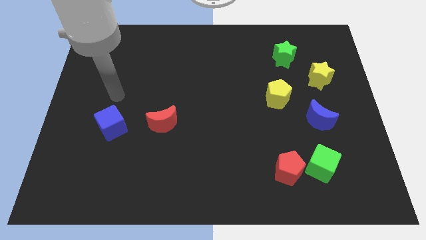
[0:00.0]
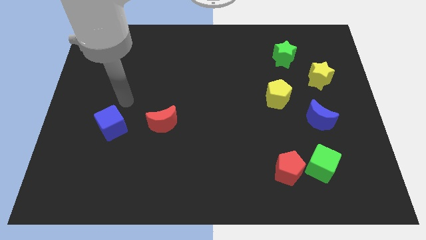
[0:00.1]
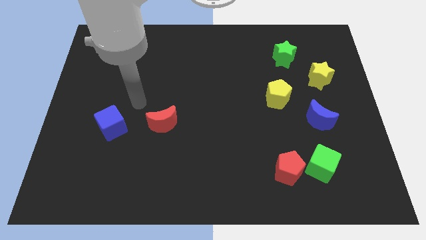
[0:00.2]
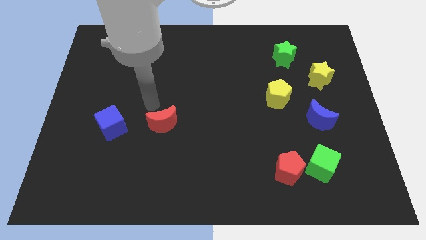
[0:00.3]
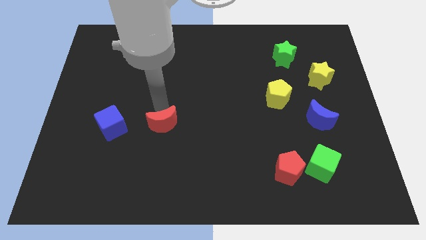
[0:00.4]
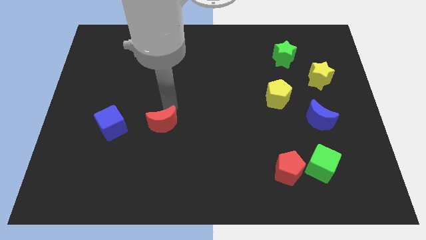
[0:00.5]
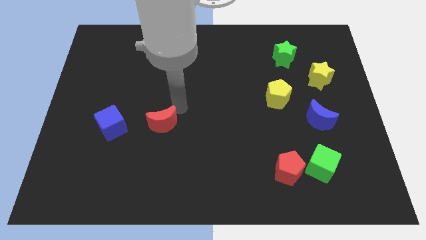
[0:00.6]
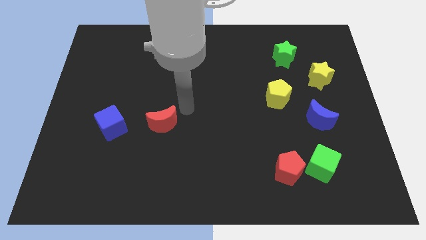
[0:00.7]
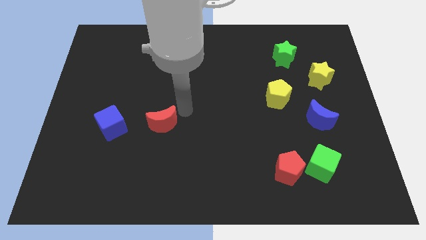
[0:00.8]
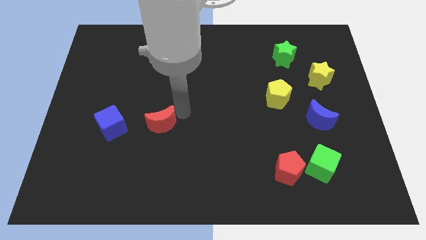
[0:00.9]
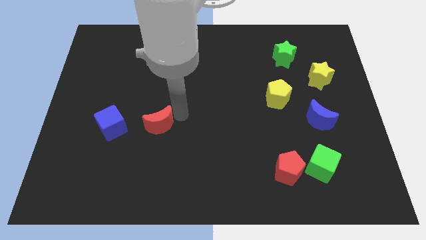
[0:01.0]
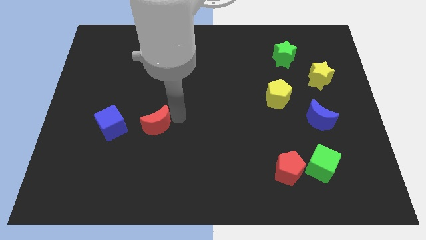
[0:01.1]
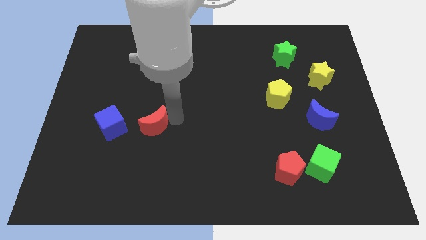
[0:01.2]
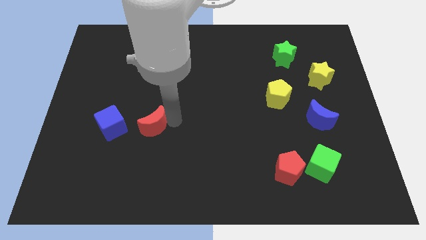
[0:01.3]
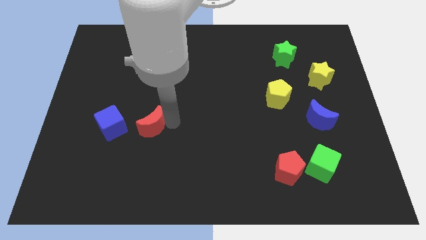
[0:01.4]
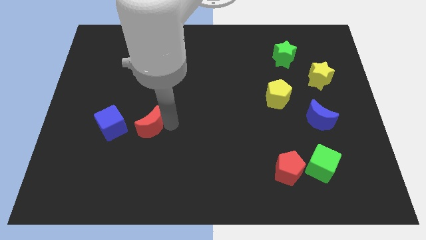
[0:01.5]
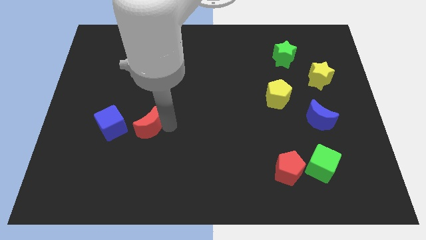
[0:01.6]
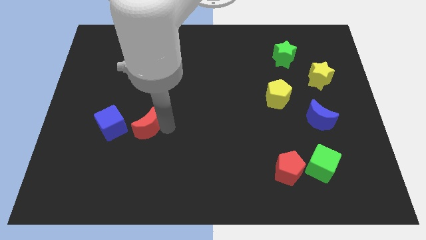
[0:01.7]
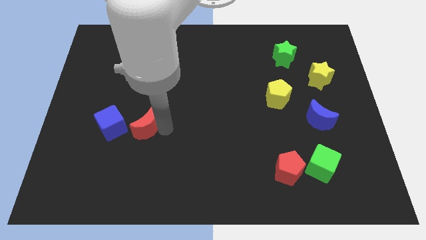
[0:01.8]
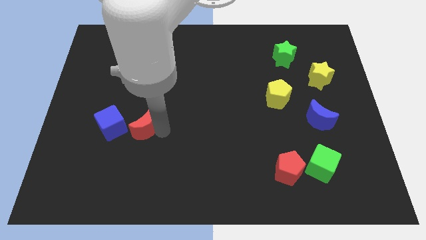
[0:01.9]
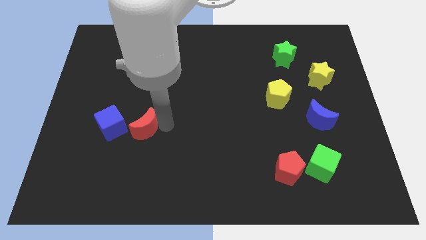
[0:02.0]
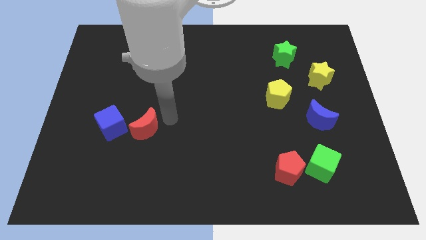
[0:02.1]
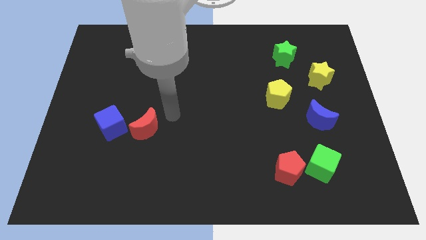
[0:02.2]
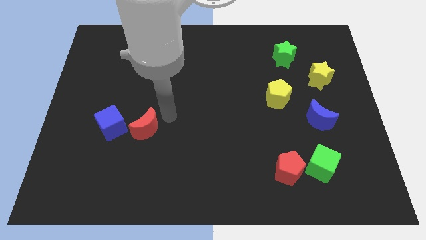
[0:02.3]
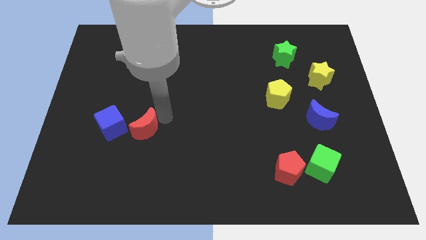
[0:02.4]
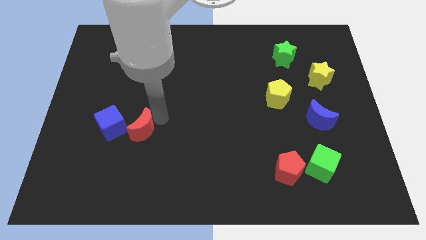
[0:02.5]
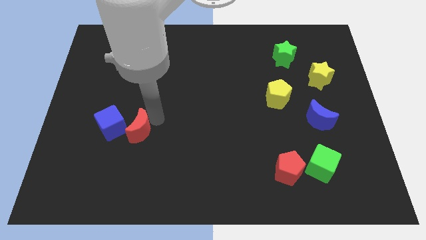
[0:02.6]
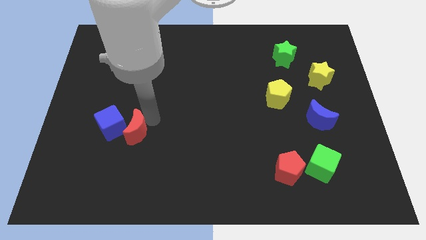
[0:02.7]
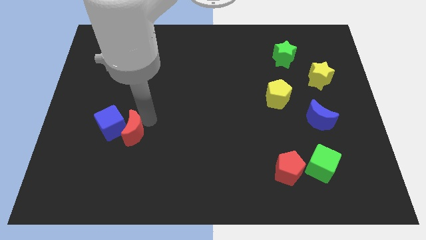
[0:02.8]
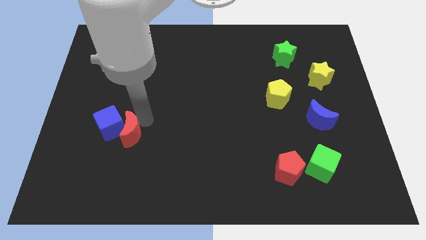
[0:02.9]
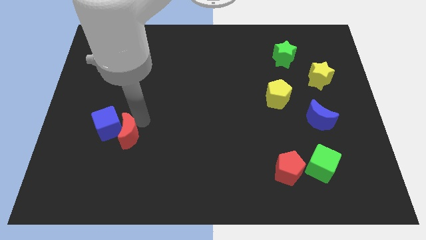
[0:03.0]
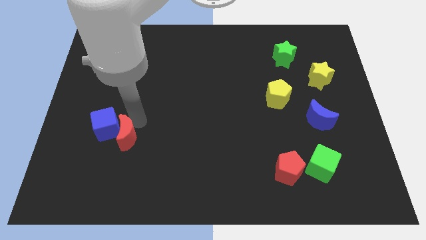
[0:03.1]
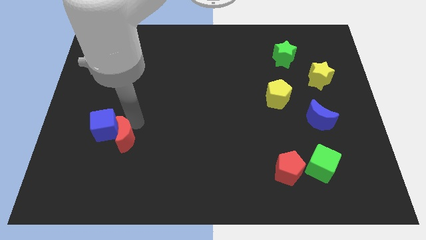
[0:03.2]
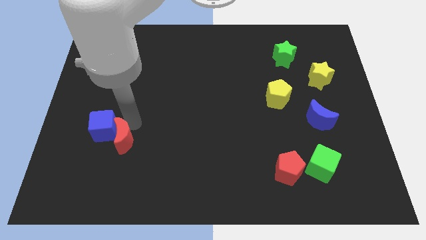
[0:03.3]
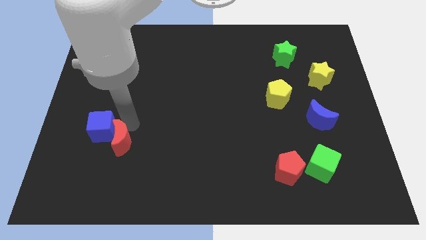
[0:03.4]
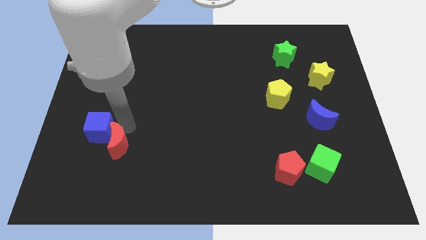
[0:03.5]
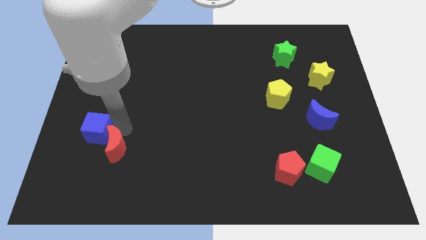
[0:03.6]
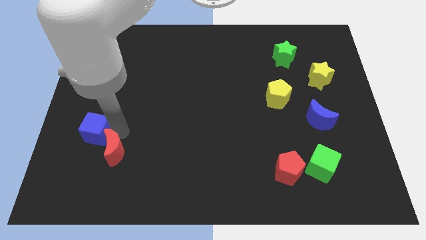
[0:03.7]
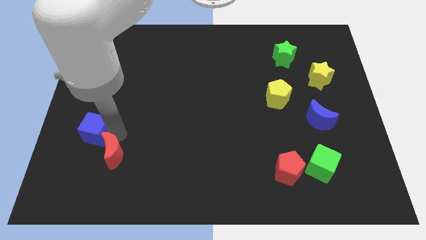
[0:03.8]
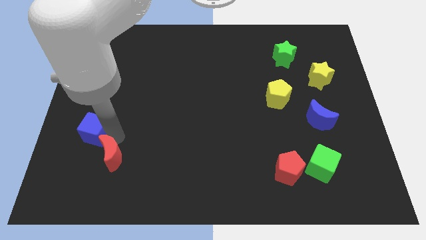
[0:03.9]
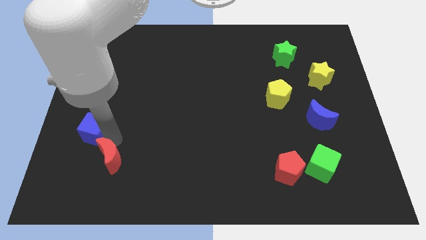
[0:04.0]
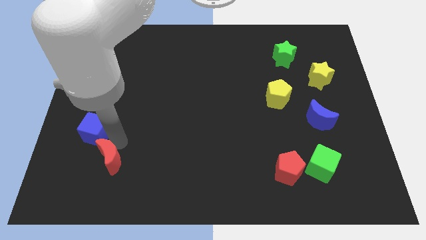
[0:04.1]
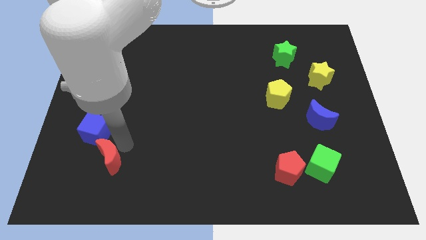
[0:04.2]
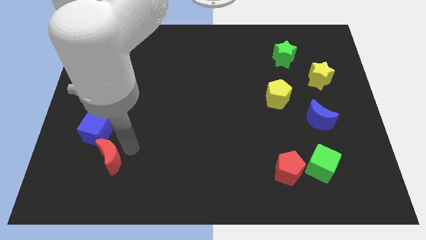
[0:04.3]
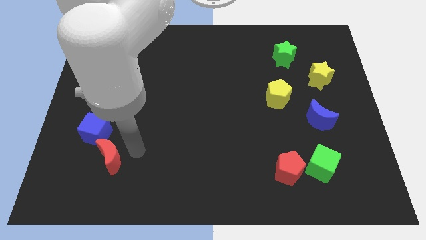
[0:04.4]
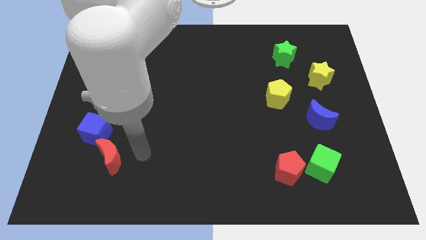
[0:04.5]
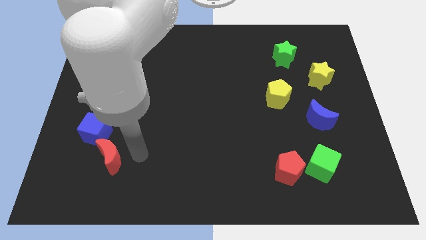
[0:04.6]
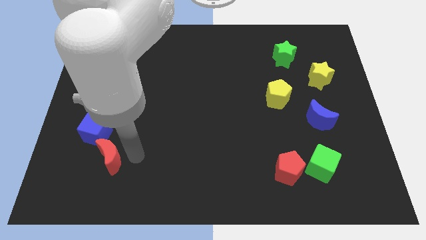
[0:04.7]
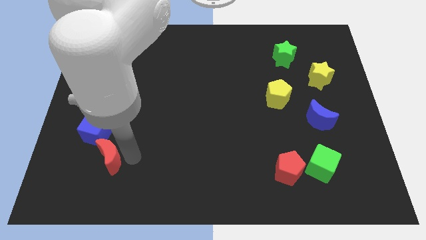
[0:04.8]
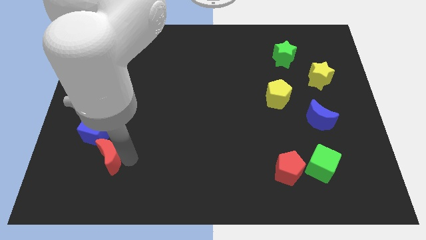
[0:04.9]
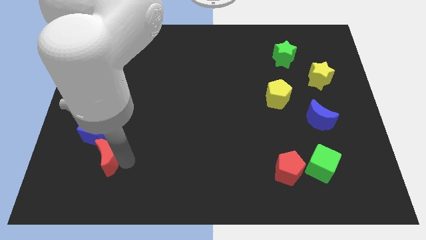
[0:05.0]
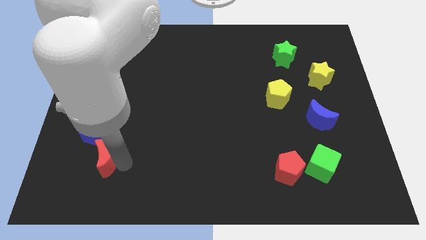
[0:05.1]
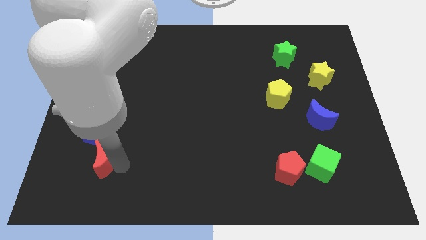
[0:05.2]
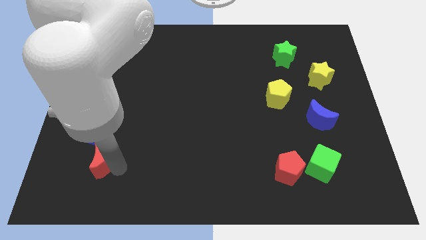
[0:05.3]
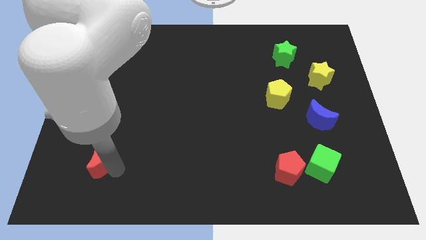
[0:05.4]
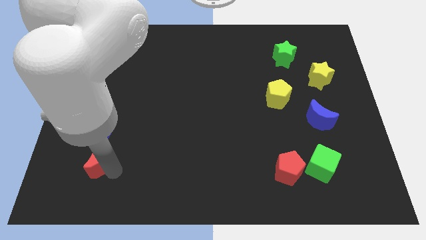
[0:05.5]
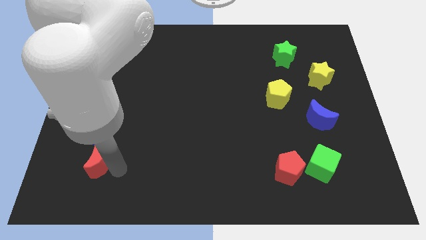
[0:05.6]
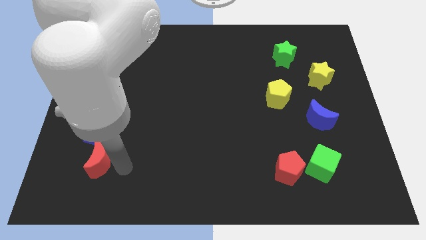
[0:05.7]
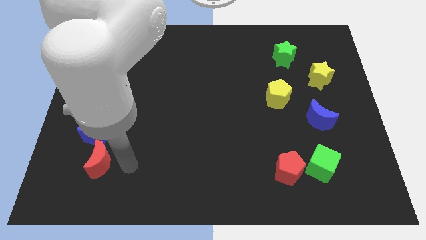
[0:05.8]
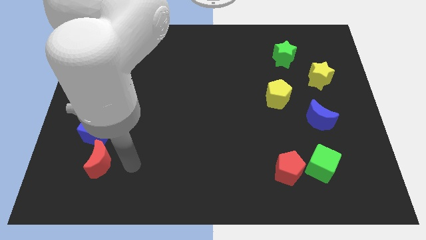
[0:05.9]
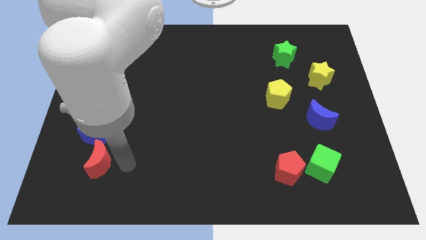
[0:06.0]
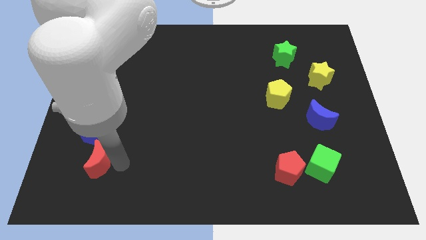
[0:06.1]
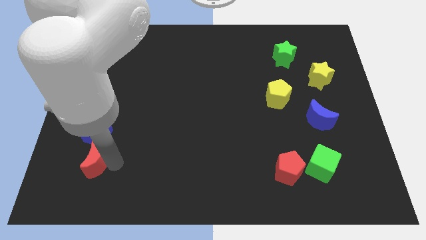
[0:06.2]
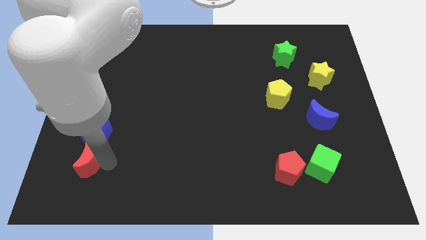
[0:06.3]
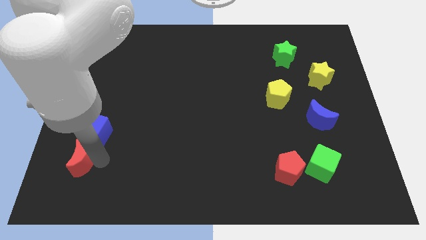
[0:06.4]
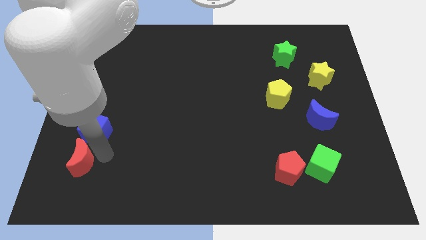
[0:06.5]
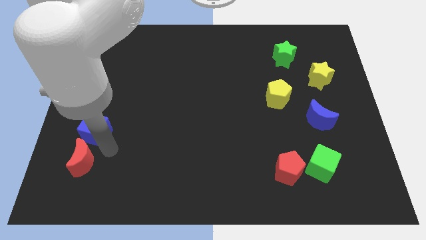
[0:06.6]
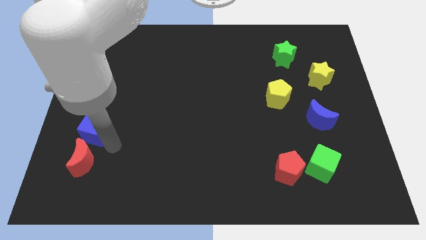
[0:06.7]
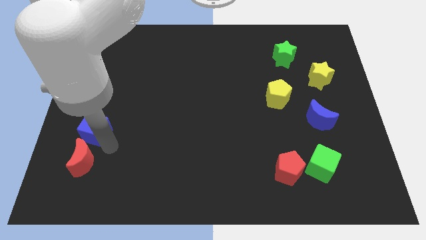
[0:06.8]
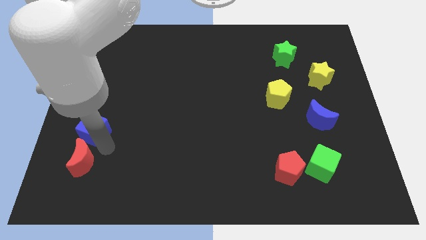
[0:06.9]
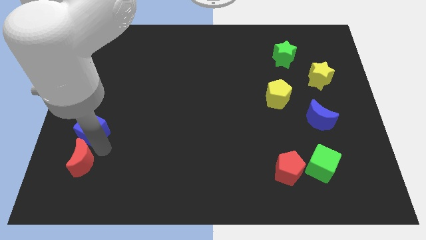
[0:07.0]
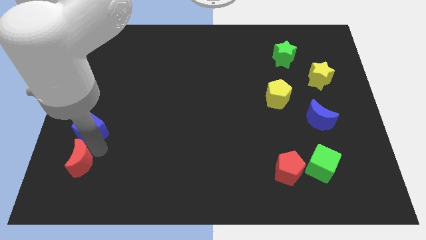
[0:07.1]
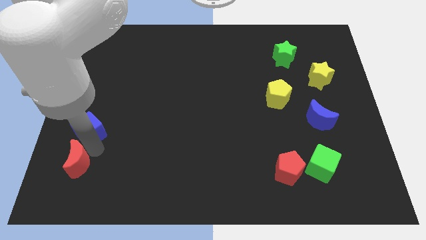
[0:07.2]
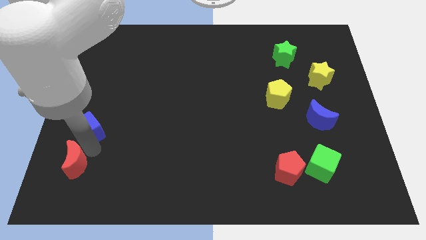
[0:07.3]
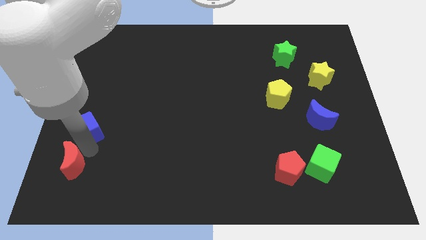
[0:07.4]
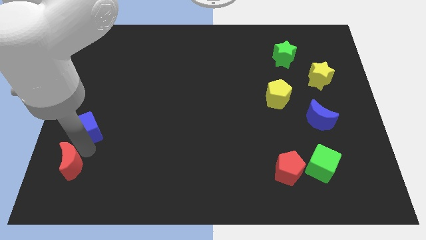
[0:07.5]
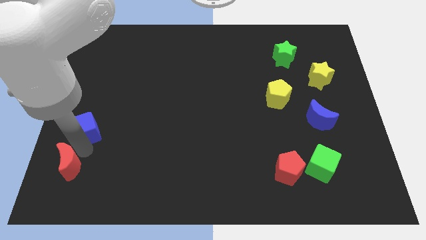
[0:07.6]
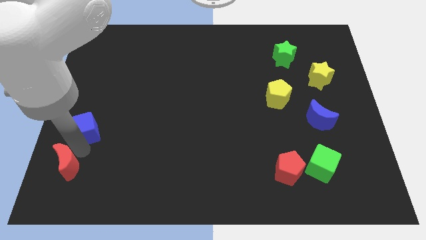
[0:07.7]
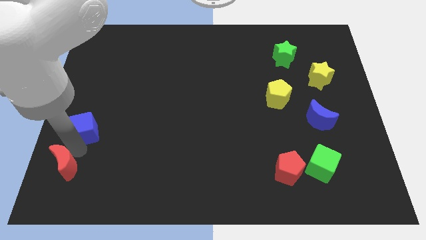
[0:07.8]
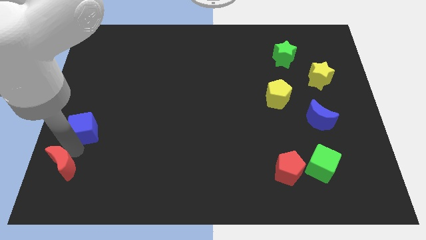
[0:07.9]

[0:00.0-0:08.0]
slide the red moon to the bottom left of the board
